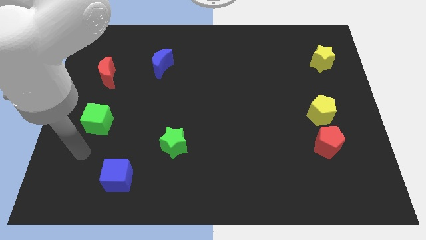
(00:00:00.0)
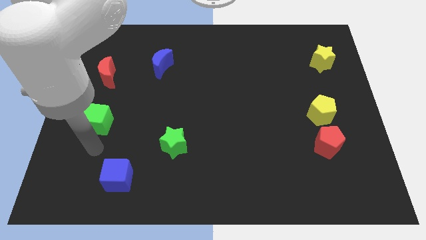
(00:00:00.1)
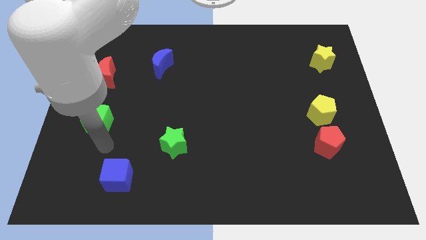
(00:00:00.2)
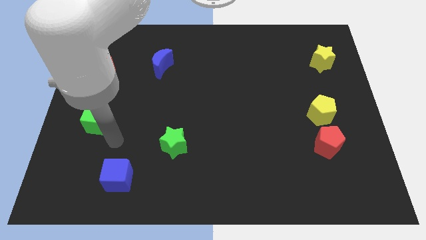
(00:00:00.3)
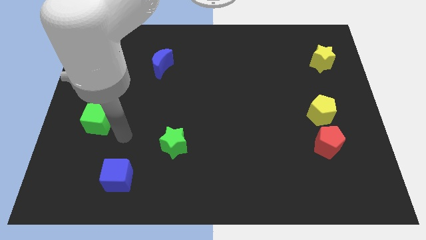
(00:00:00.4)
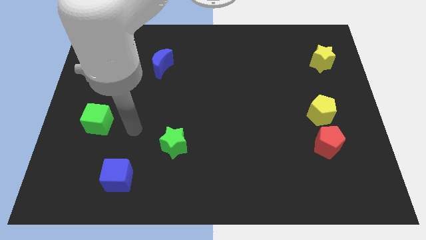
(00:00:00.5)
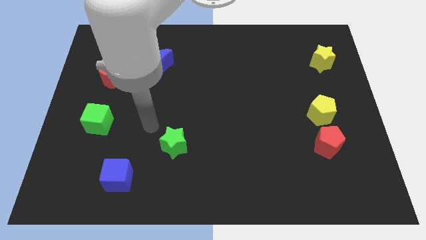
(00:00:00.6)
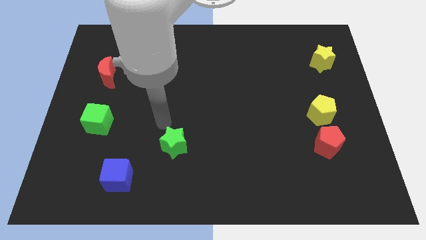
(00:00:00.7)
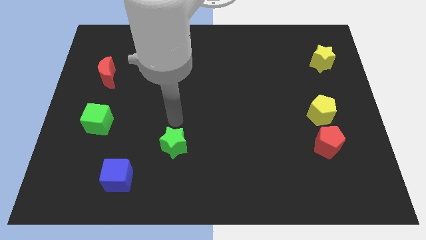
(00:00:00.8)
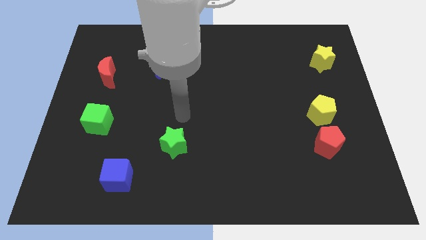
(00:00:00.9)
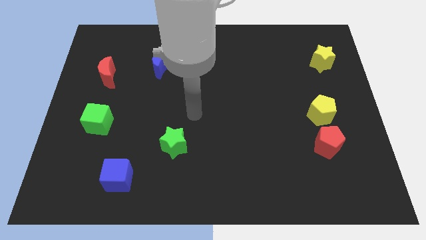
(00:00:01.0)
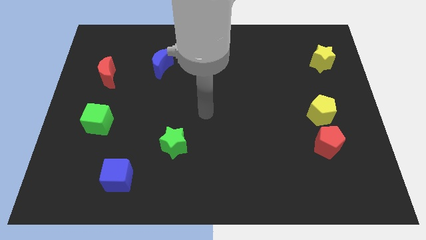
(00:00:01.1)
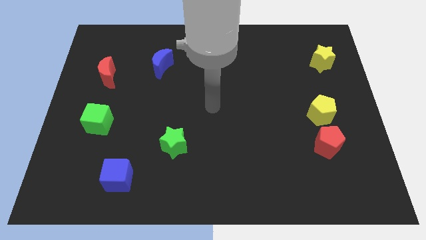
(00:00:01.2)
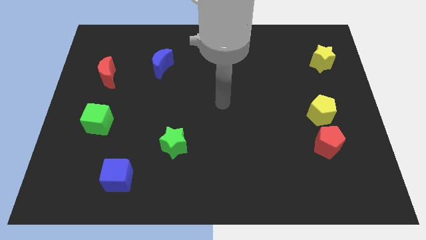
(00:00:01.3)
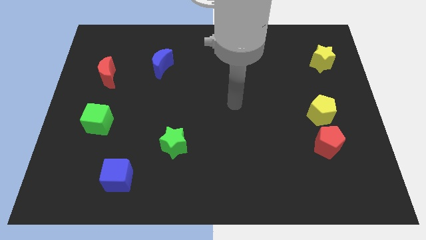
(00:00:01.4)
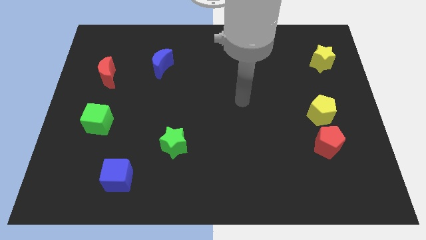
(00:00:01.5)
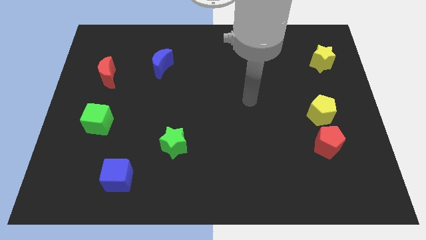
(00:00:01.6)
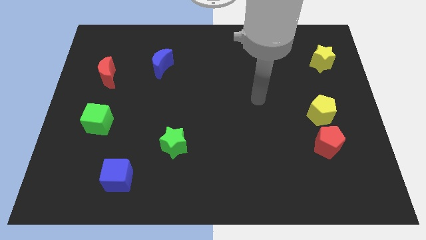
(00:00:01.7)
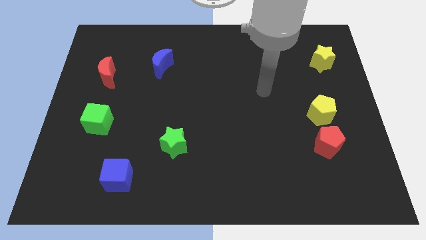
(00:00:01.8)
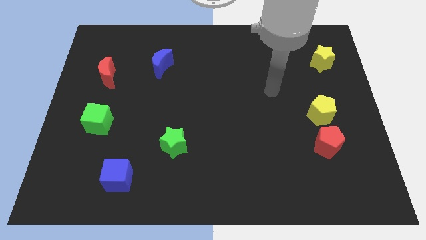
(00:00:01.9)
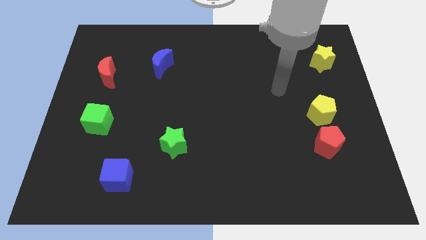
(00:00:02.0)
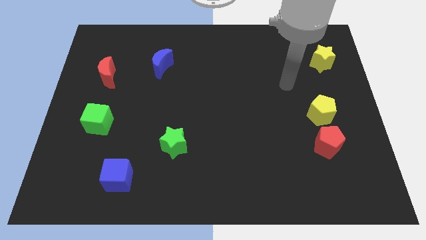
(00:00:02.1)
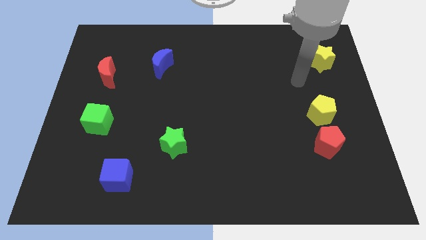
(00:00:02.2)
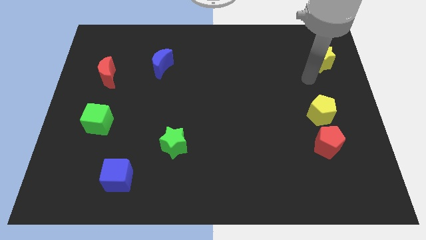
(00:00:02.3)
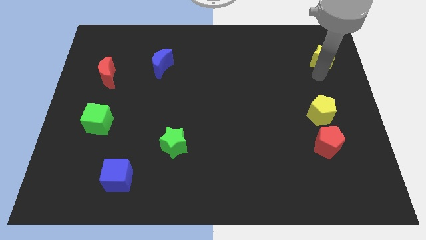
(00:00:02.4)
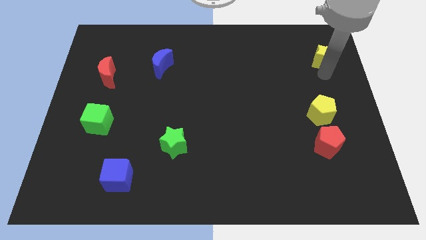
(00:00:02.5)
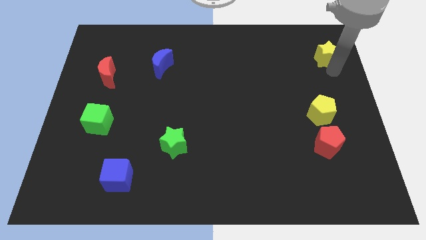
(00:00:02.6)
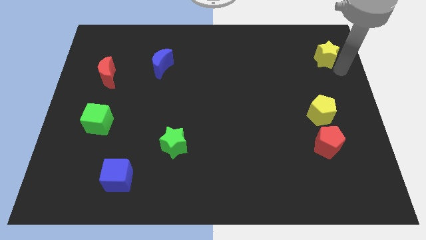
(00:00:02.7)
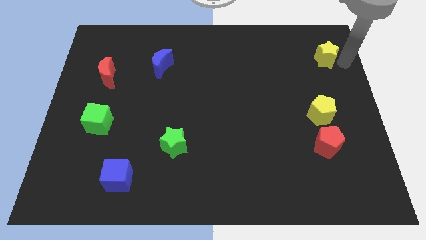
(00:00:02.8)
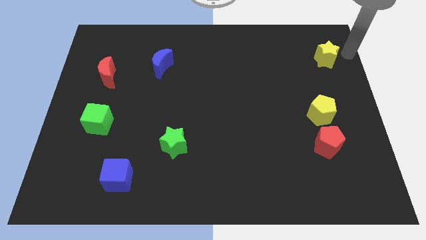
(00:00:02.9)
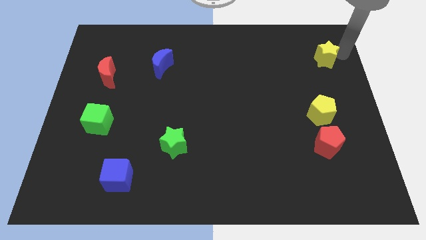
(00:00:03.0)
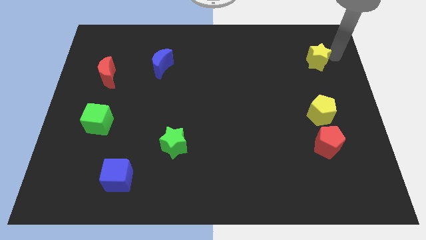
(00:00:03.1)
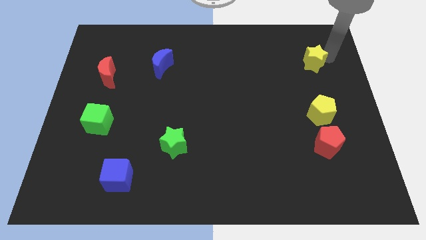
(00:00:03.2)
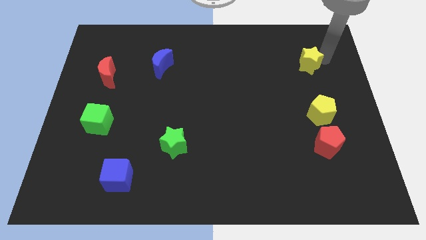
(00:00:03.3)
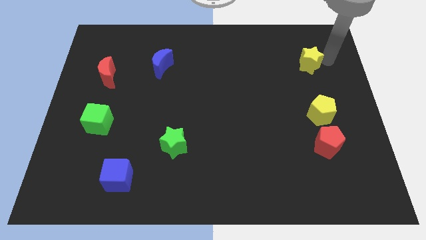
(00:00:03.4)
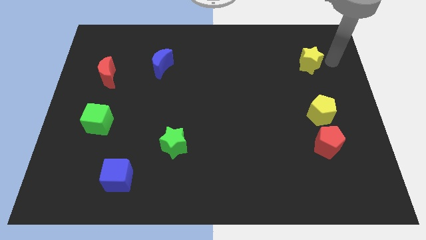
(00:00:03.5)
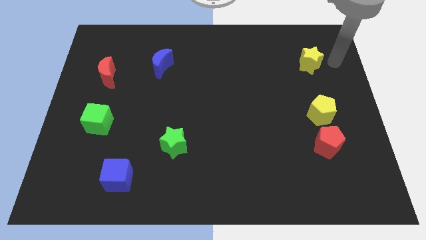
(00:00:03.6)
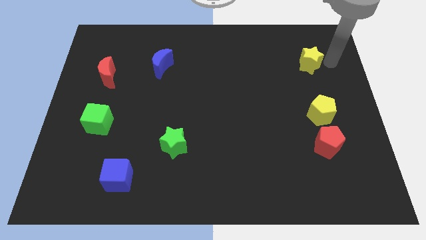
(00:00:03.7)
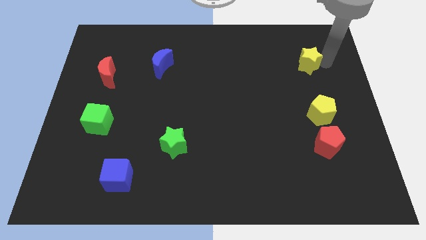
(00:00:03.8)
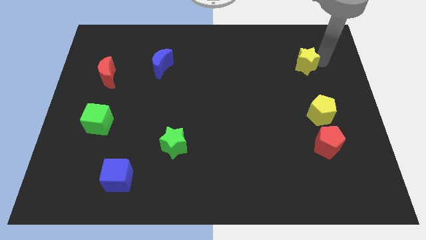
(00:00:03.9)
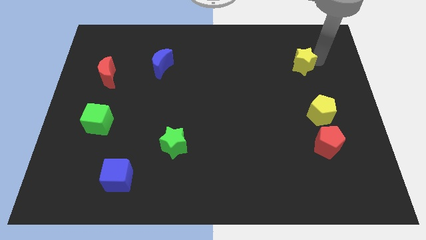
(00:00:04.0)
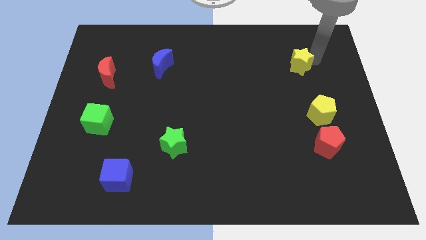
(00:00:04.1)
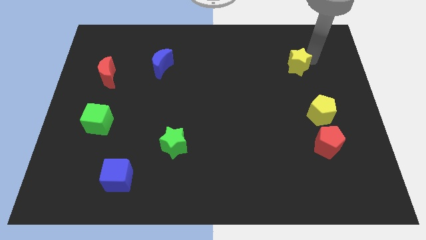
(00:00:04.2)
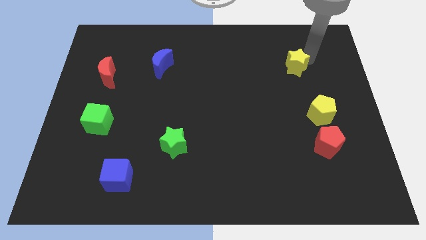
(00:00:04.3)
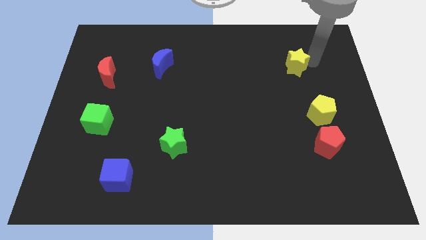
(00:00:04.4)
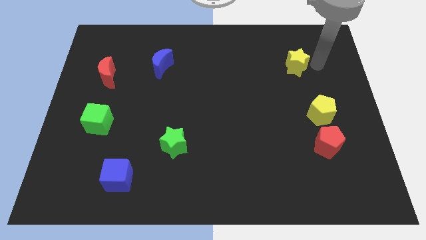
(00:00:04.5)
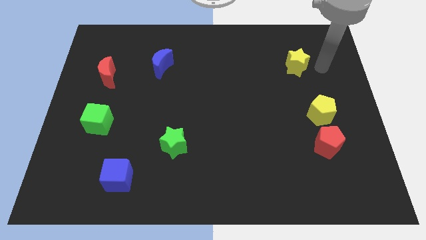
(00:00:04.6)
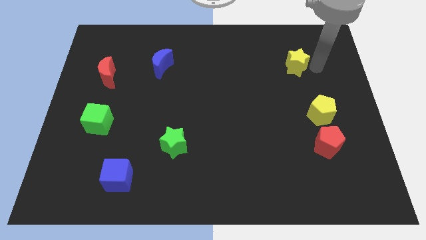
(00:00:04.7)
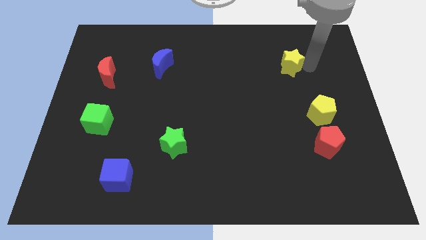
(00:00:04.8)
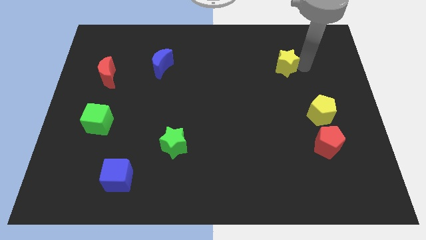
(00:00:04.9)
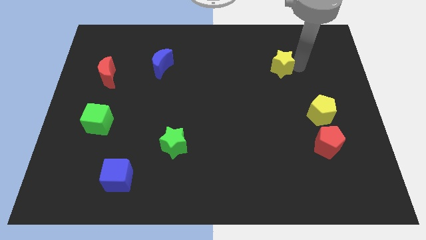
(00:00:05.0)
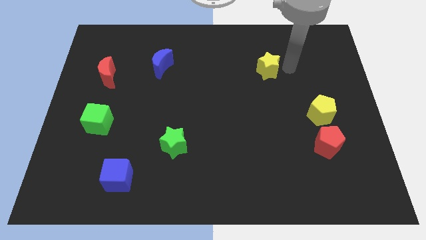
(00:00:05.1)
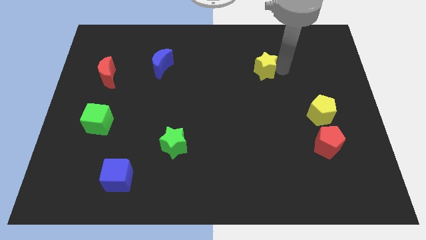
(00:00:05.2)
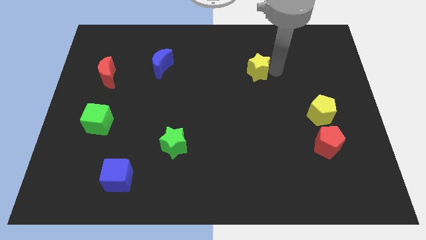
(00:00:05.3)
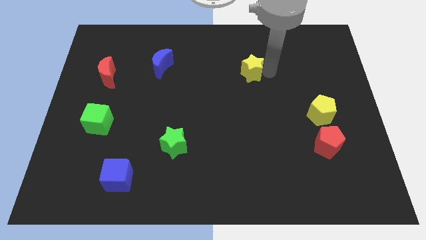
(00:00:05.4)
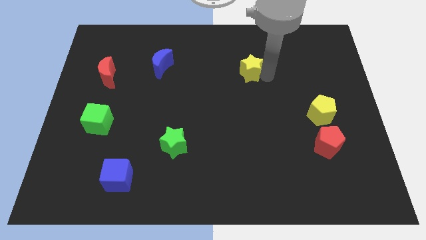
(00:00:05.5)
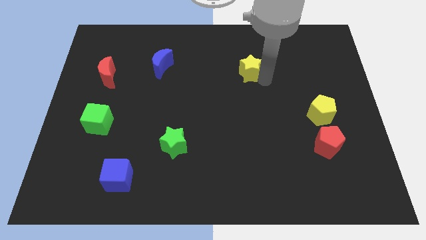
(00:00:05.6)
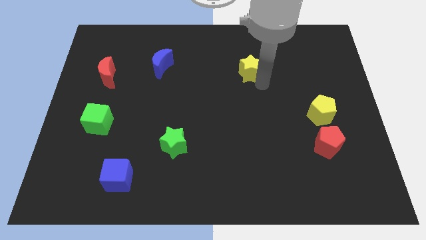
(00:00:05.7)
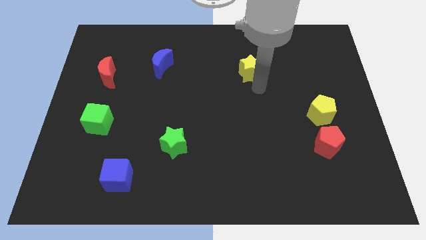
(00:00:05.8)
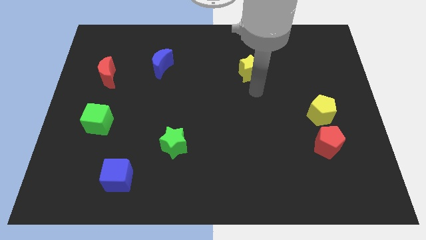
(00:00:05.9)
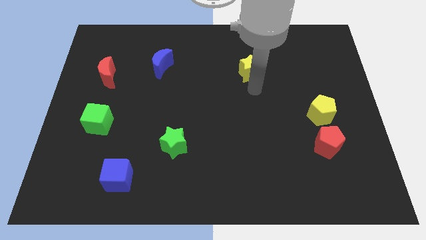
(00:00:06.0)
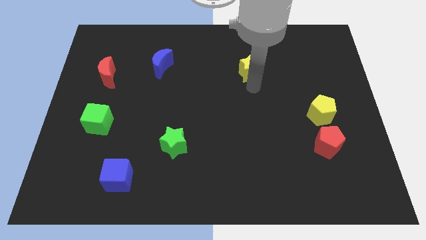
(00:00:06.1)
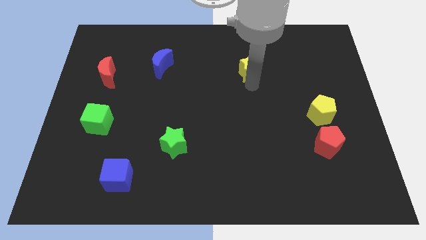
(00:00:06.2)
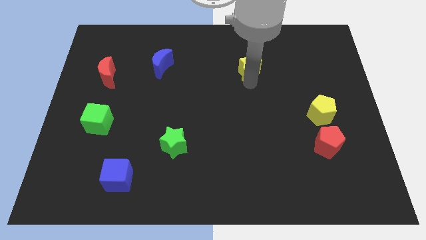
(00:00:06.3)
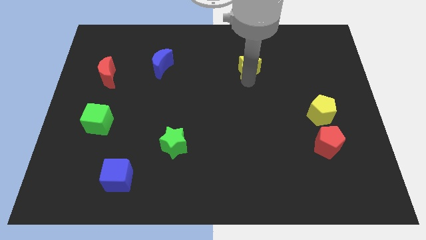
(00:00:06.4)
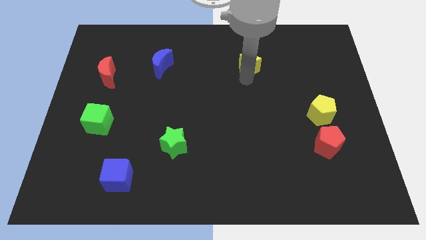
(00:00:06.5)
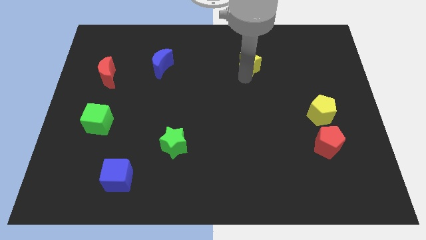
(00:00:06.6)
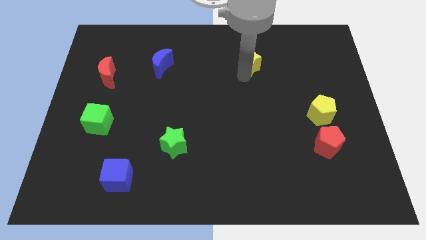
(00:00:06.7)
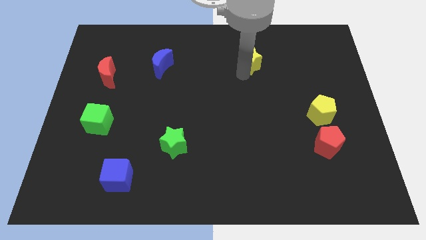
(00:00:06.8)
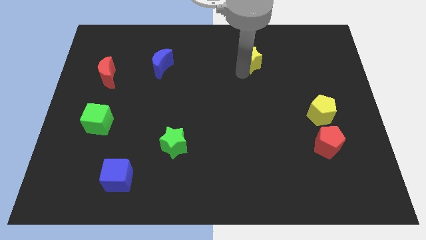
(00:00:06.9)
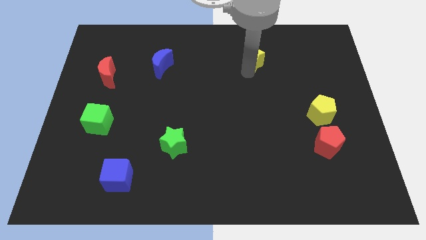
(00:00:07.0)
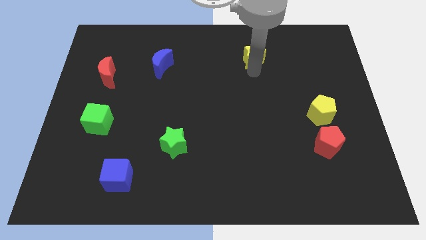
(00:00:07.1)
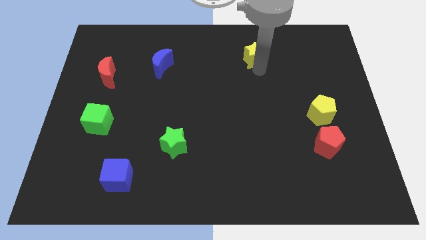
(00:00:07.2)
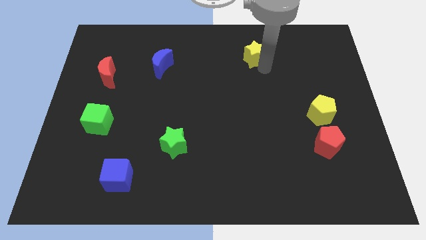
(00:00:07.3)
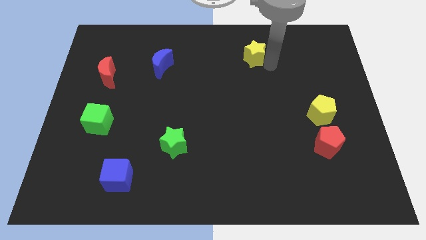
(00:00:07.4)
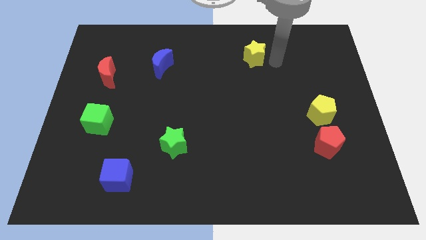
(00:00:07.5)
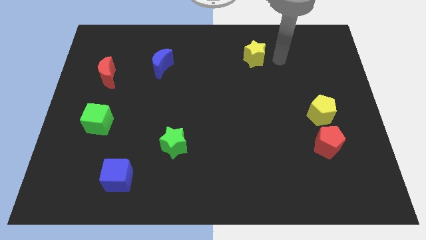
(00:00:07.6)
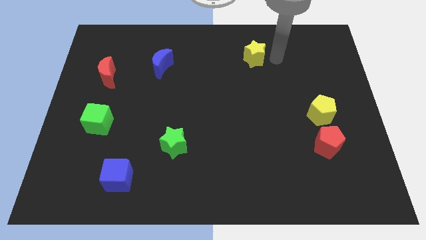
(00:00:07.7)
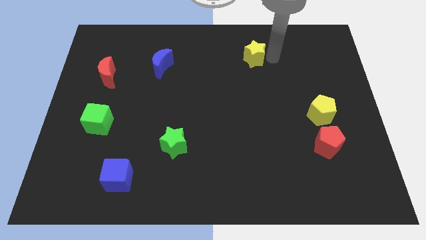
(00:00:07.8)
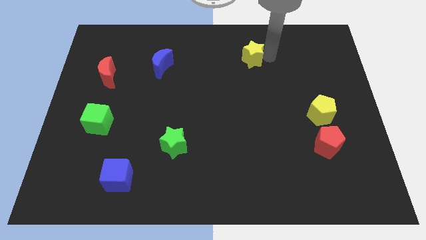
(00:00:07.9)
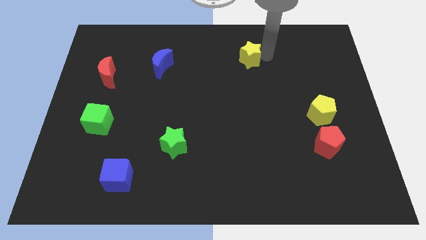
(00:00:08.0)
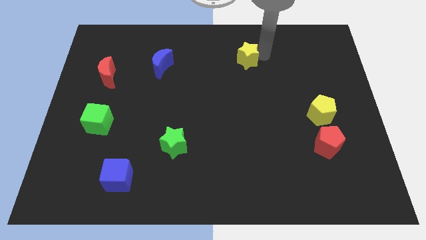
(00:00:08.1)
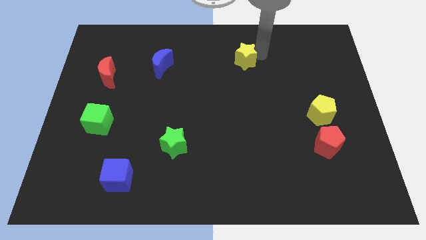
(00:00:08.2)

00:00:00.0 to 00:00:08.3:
move the yellow star left
